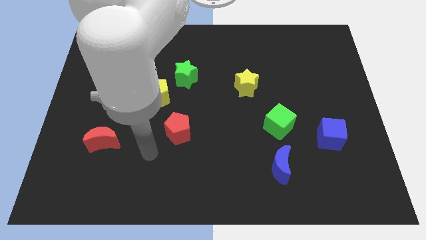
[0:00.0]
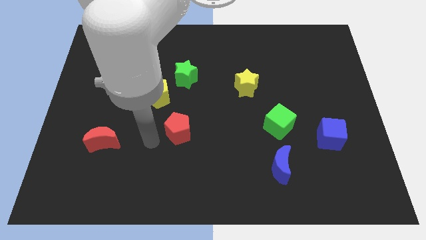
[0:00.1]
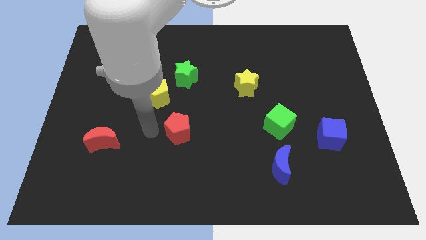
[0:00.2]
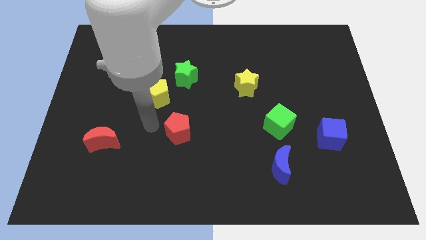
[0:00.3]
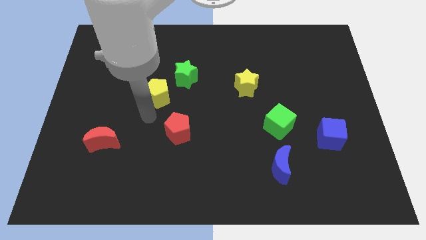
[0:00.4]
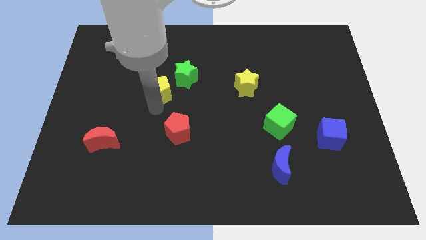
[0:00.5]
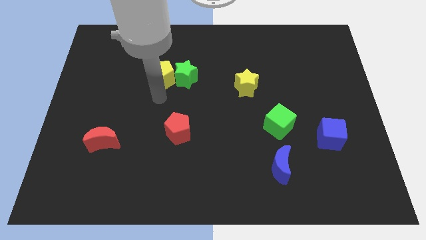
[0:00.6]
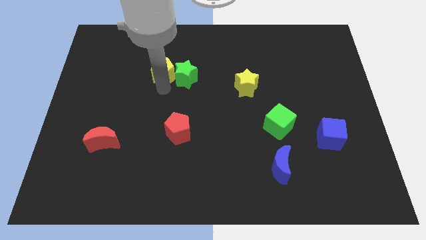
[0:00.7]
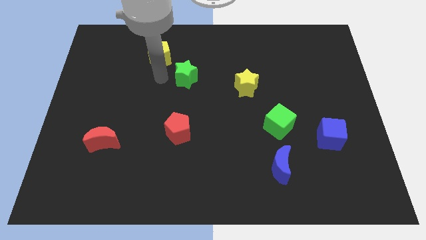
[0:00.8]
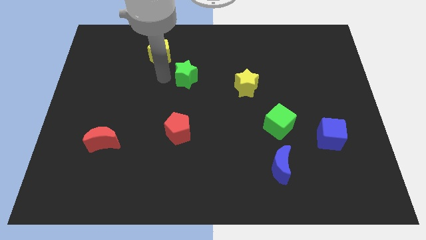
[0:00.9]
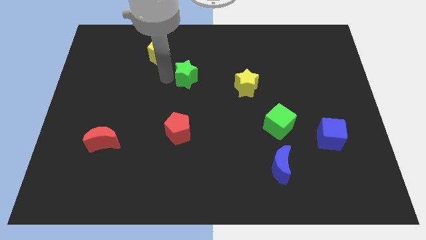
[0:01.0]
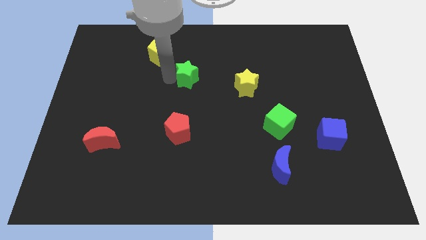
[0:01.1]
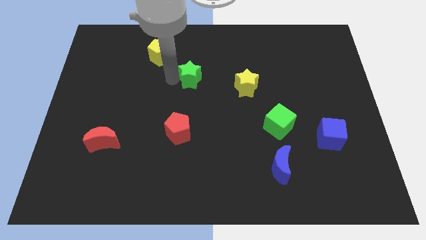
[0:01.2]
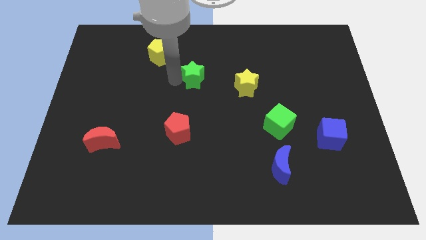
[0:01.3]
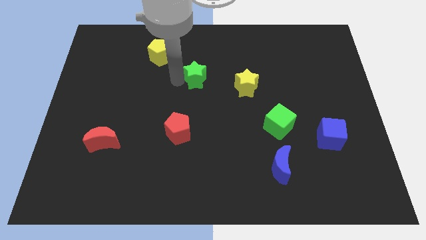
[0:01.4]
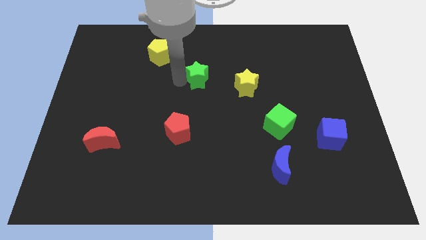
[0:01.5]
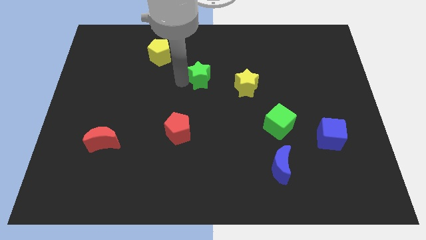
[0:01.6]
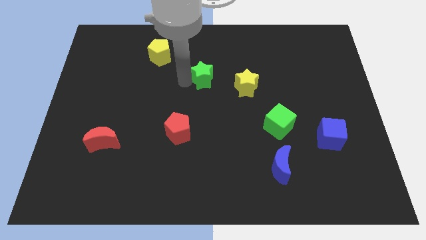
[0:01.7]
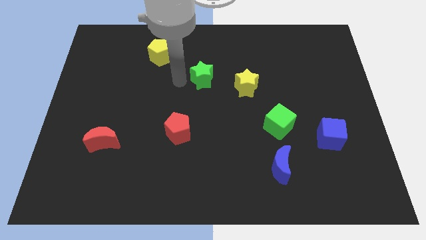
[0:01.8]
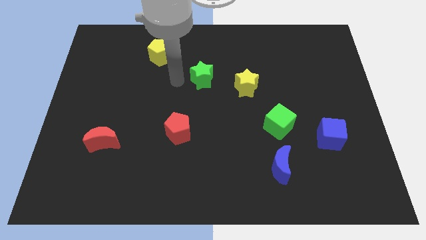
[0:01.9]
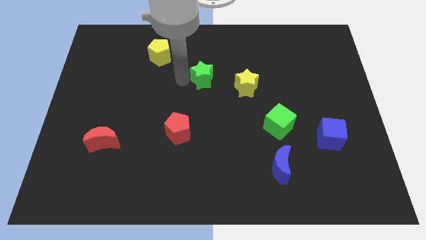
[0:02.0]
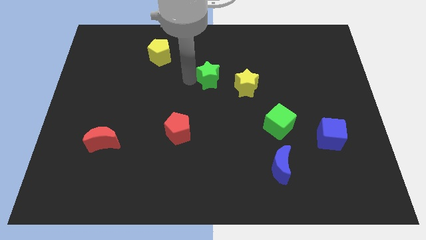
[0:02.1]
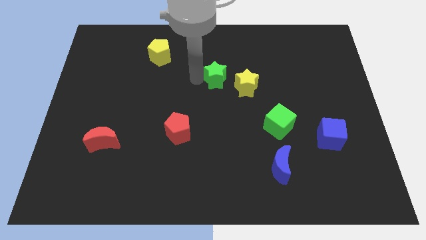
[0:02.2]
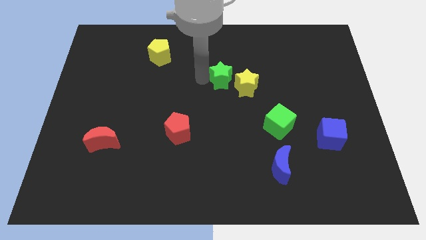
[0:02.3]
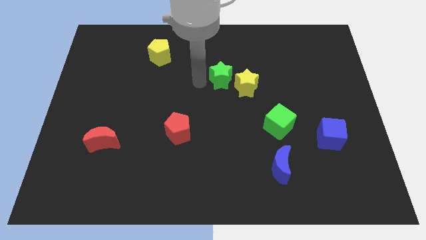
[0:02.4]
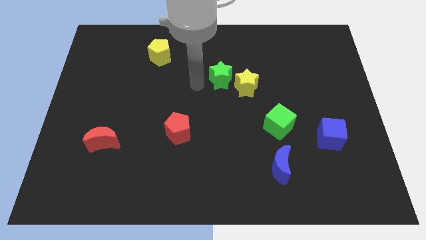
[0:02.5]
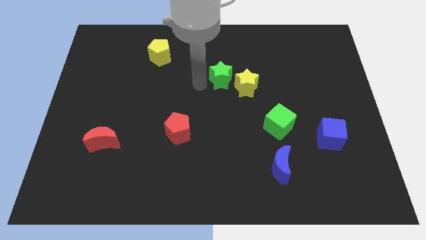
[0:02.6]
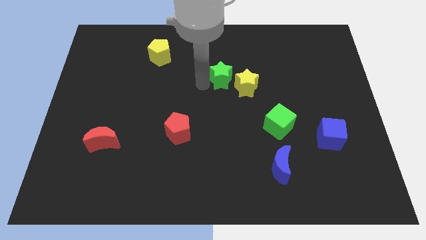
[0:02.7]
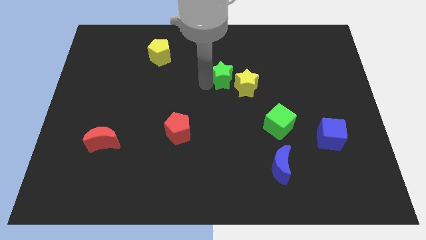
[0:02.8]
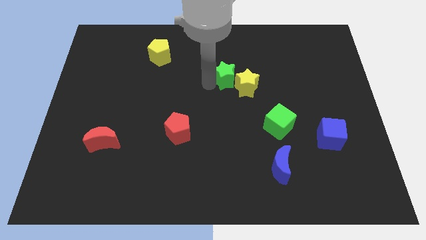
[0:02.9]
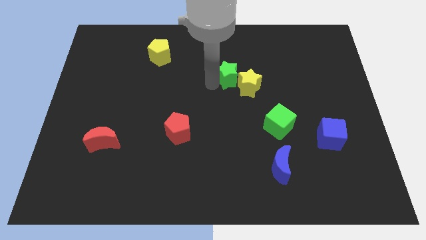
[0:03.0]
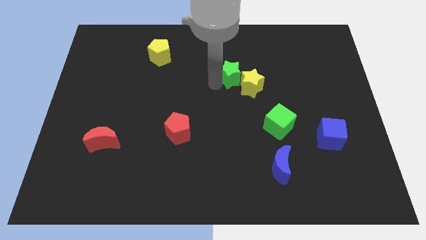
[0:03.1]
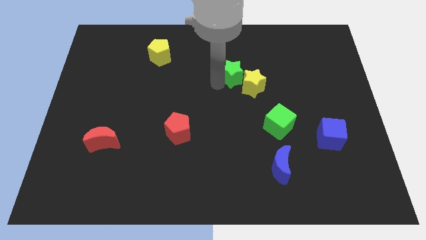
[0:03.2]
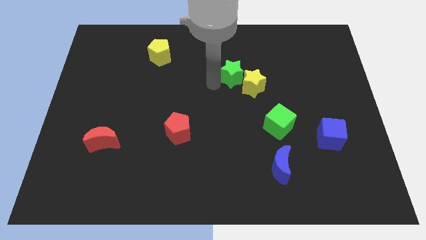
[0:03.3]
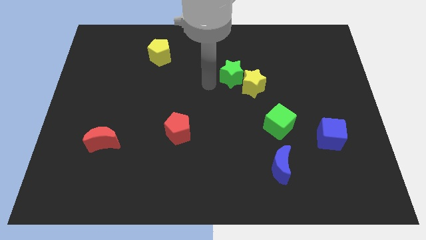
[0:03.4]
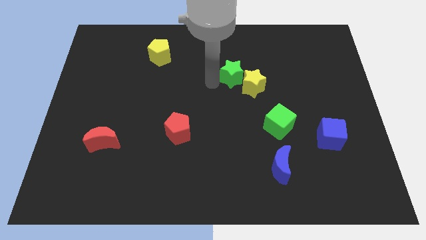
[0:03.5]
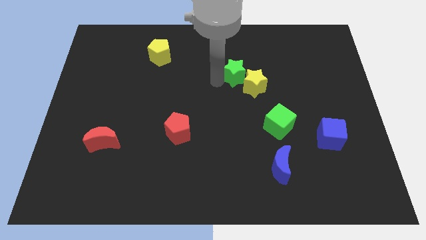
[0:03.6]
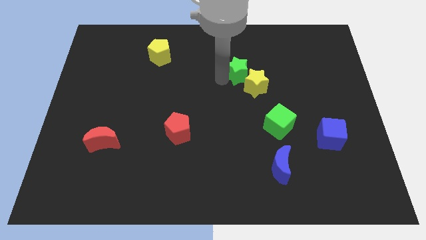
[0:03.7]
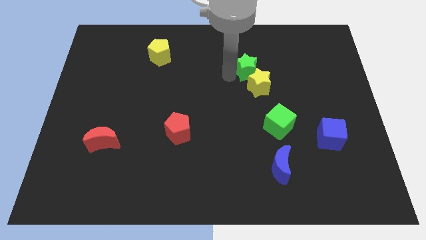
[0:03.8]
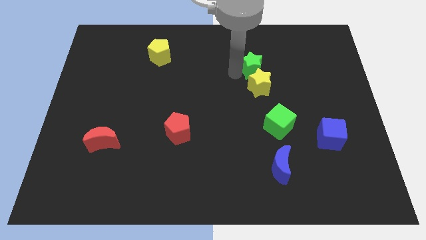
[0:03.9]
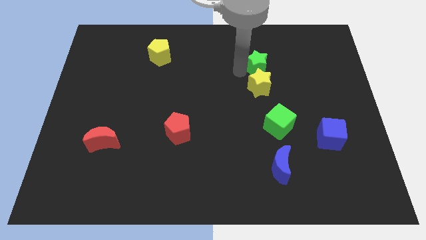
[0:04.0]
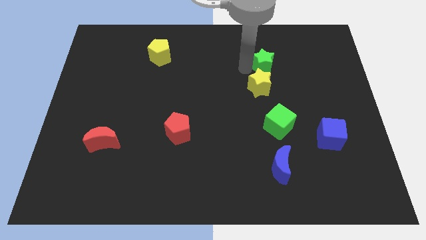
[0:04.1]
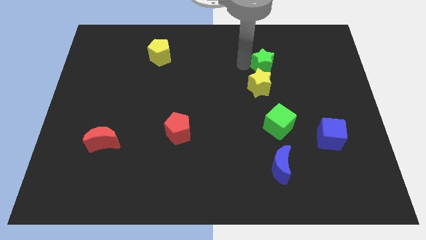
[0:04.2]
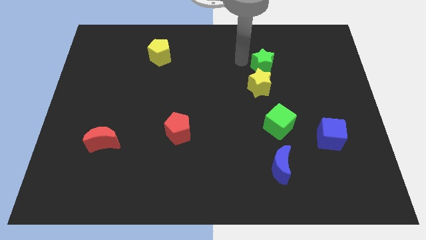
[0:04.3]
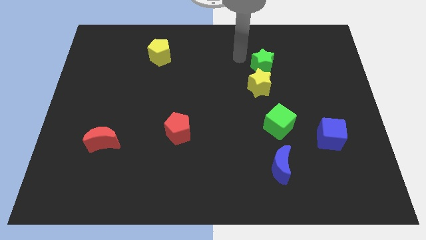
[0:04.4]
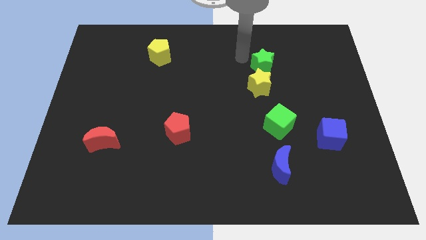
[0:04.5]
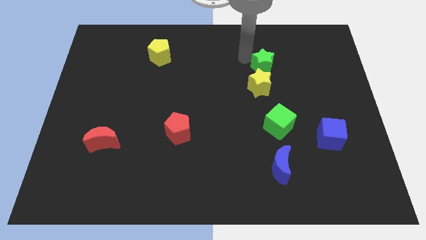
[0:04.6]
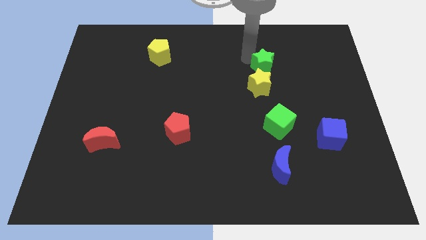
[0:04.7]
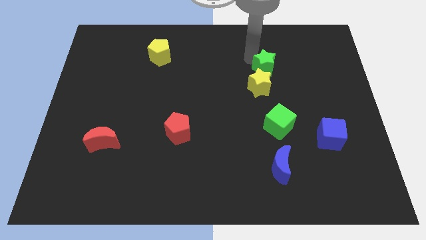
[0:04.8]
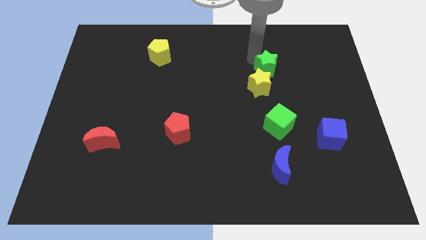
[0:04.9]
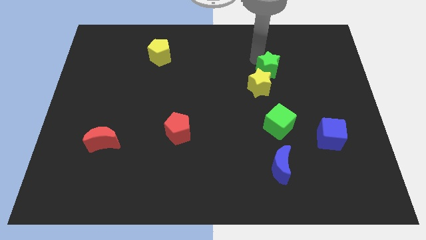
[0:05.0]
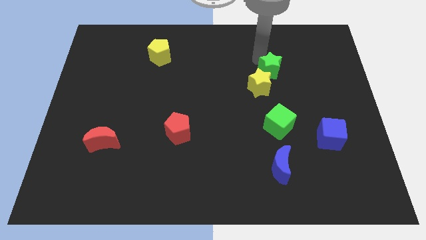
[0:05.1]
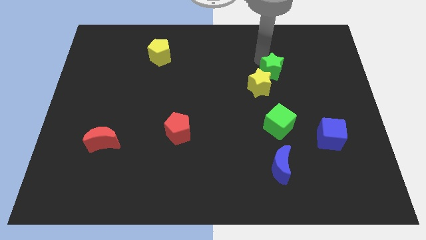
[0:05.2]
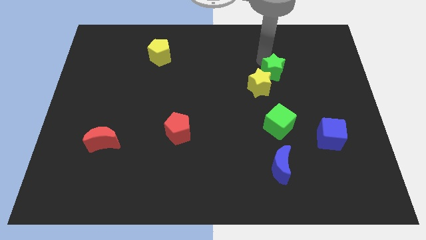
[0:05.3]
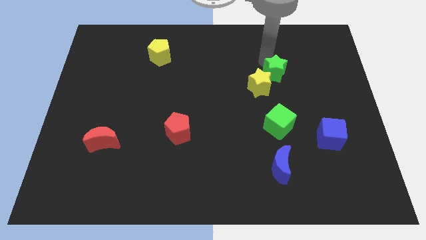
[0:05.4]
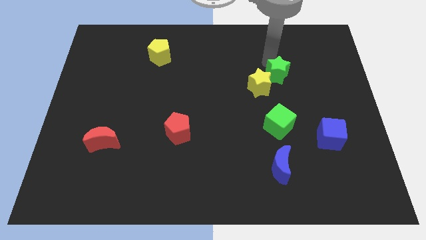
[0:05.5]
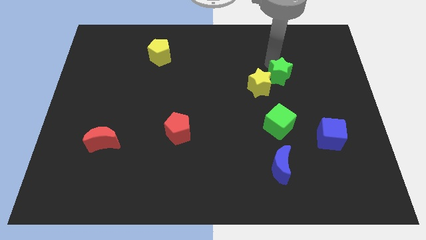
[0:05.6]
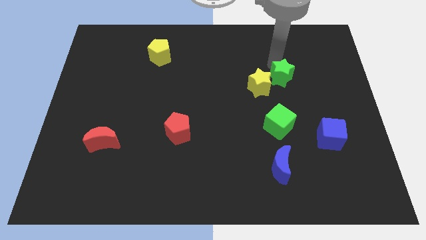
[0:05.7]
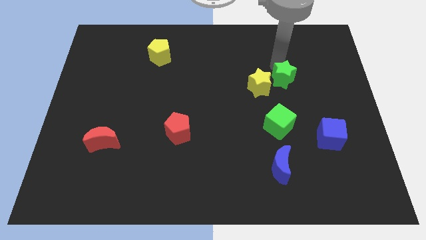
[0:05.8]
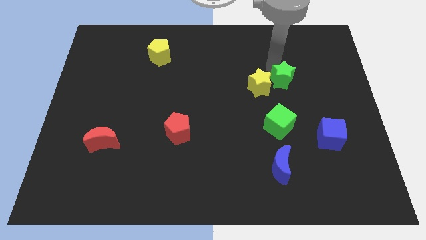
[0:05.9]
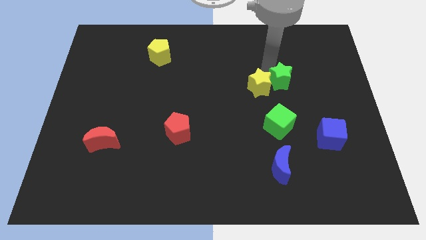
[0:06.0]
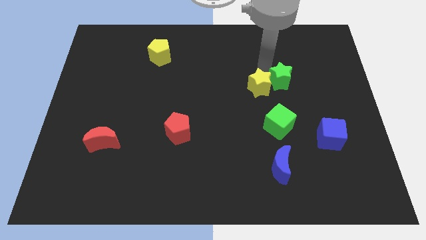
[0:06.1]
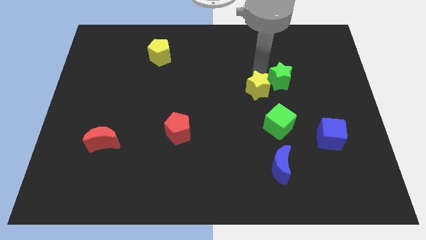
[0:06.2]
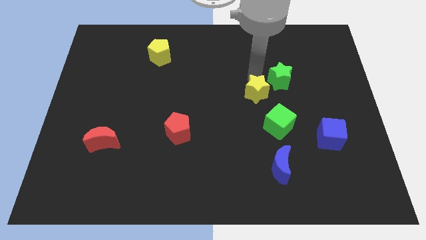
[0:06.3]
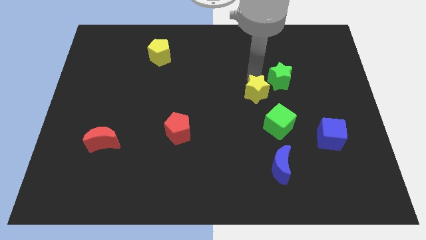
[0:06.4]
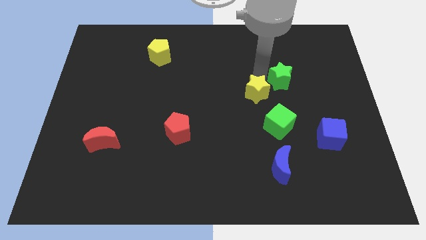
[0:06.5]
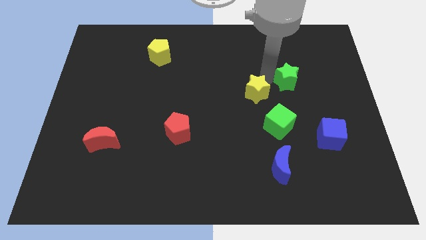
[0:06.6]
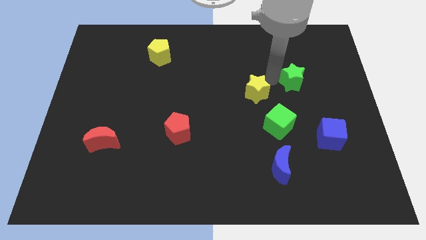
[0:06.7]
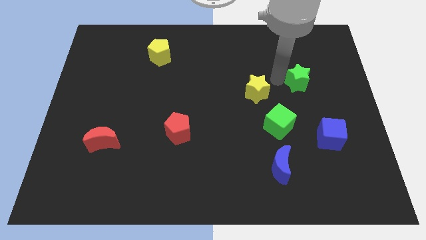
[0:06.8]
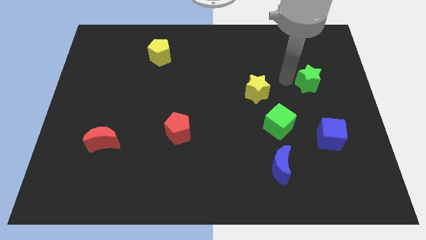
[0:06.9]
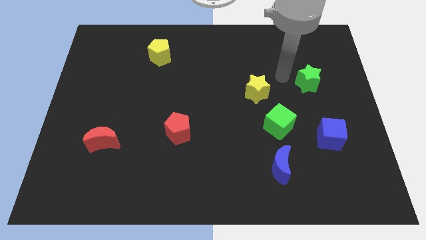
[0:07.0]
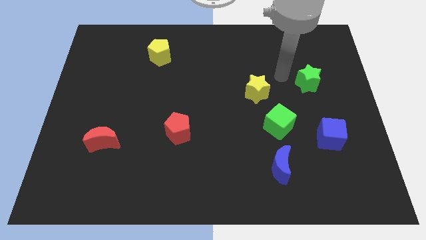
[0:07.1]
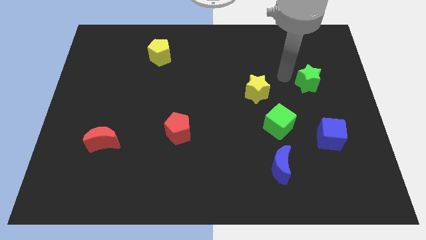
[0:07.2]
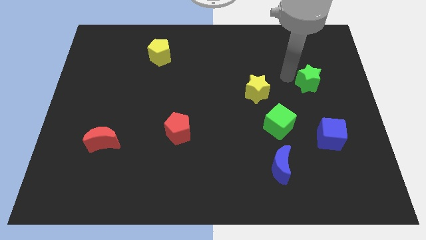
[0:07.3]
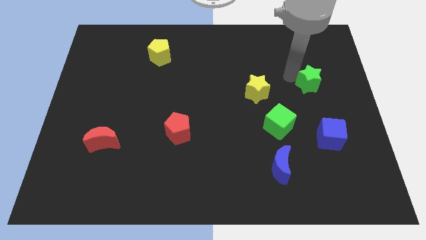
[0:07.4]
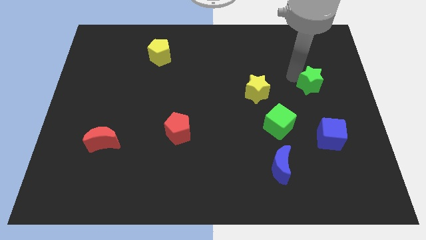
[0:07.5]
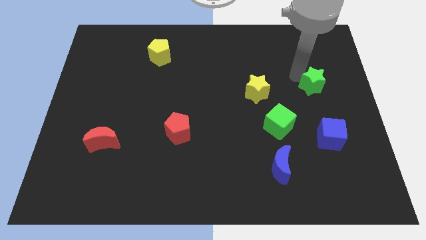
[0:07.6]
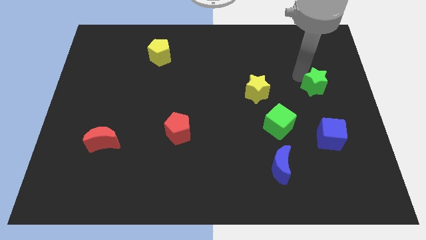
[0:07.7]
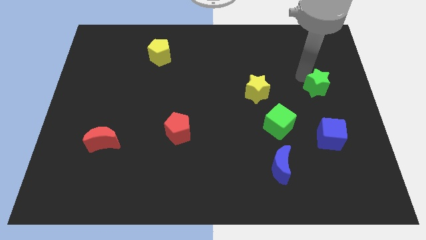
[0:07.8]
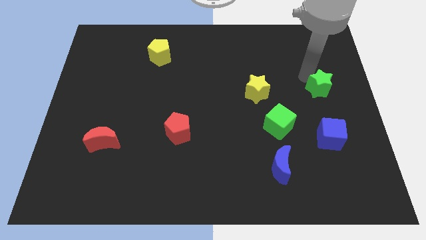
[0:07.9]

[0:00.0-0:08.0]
slide the green star to the center right

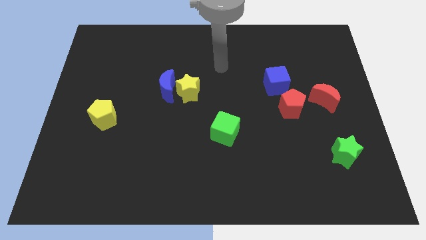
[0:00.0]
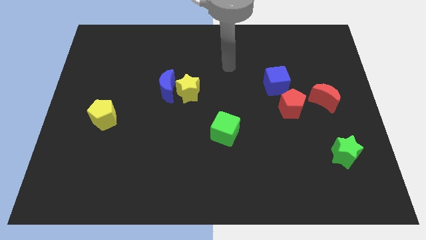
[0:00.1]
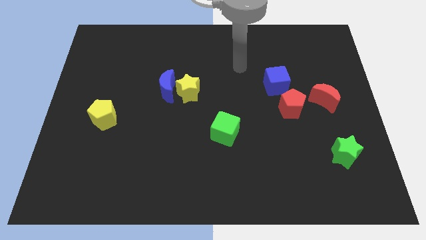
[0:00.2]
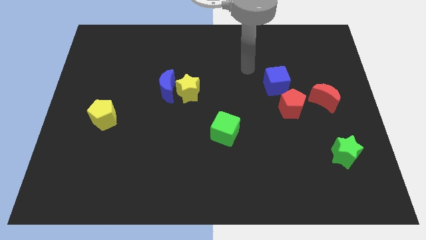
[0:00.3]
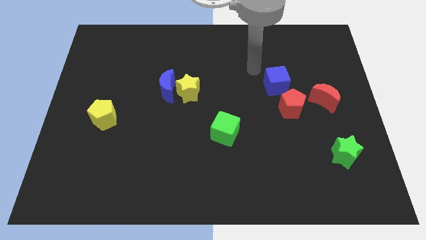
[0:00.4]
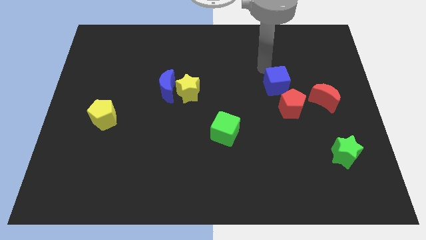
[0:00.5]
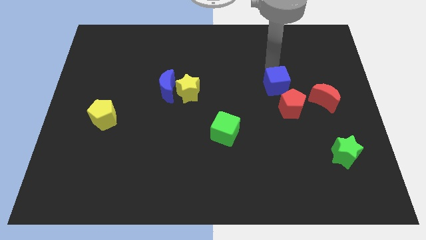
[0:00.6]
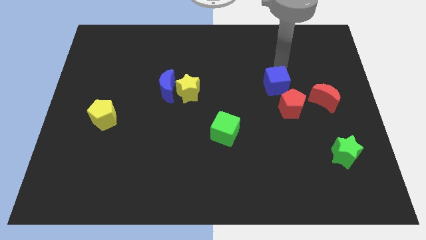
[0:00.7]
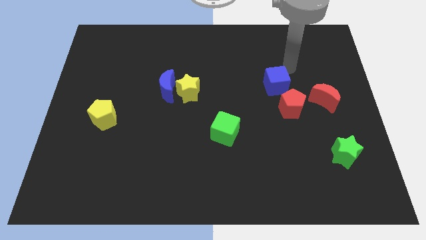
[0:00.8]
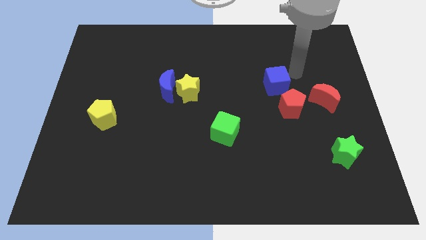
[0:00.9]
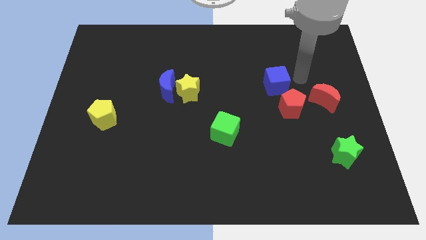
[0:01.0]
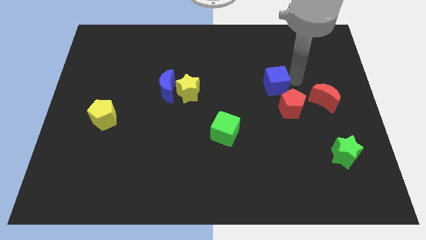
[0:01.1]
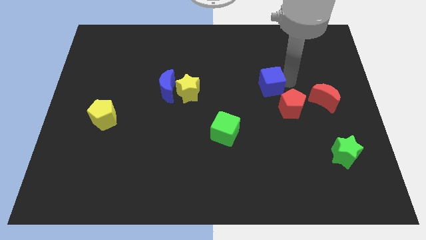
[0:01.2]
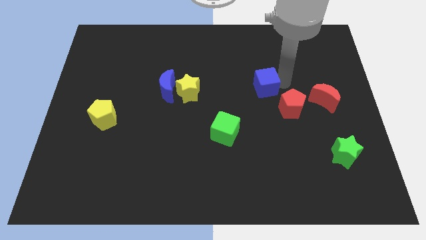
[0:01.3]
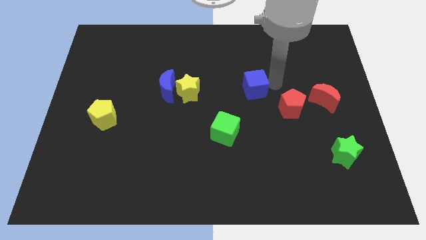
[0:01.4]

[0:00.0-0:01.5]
move the blue cube to the middle of the board
